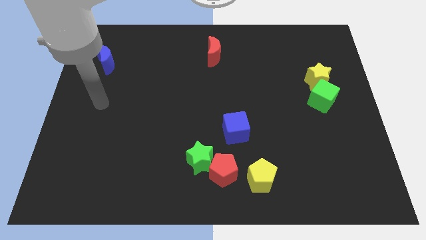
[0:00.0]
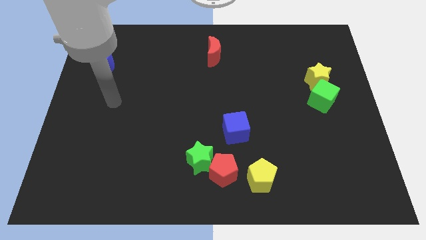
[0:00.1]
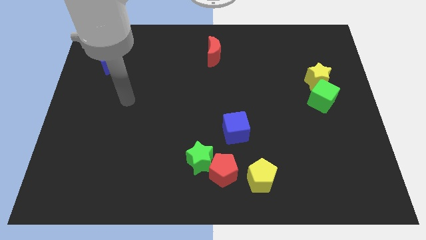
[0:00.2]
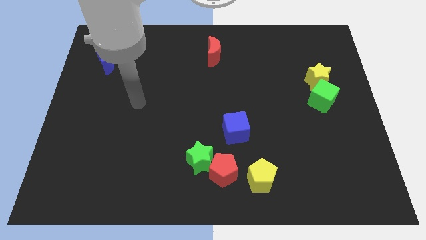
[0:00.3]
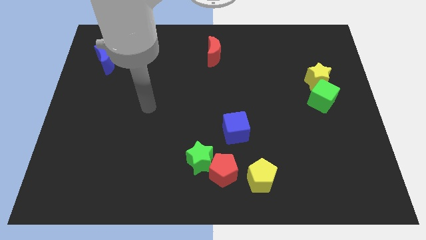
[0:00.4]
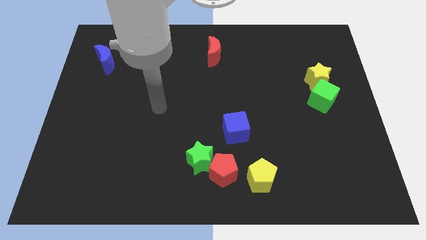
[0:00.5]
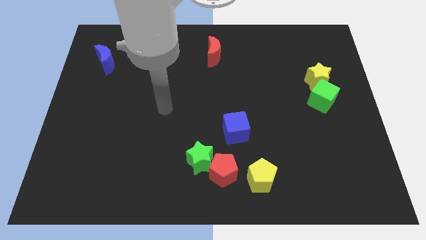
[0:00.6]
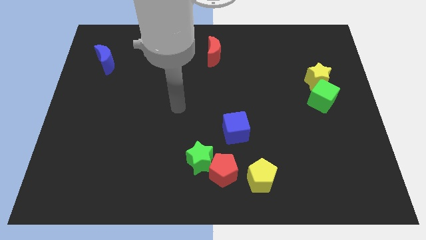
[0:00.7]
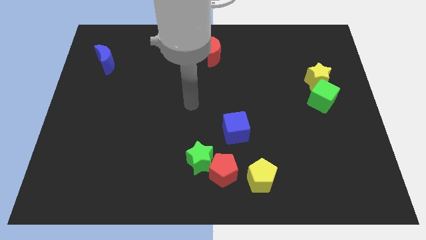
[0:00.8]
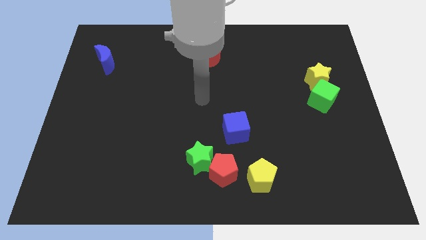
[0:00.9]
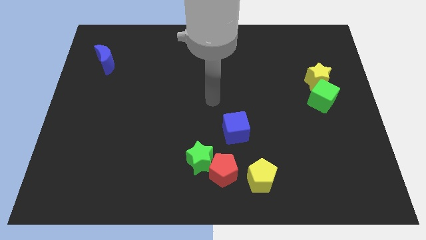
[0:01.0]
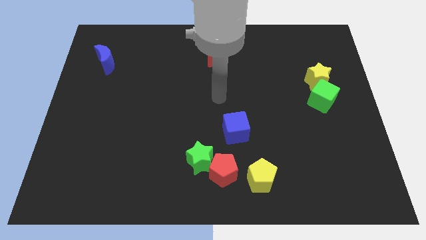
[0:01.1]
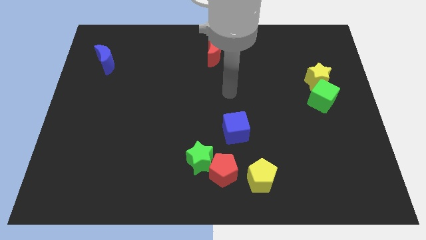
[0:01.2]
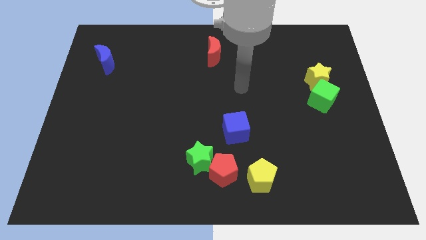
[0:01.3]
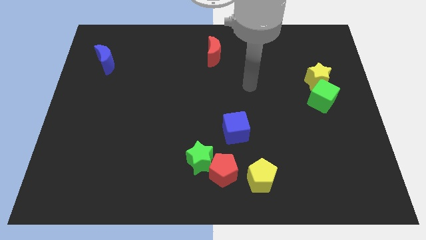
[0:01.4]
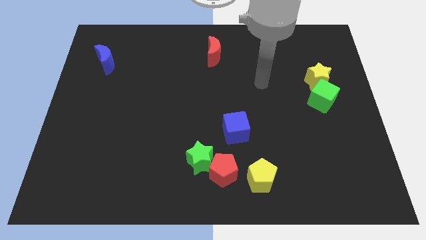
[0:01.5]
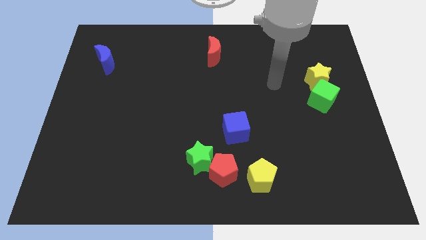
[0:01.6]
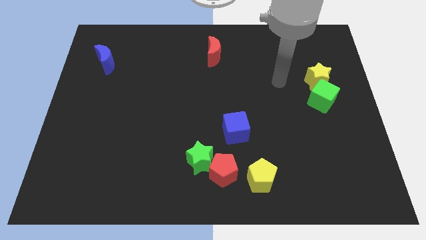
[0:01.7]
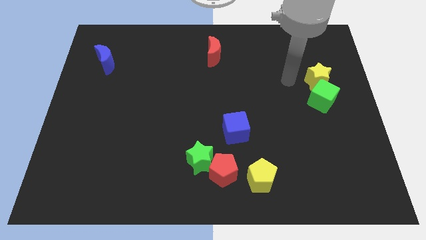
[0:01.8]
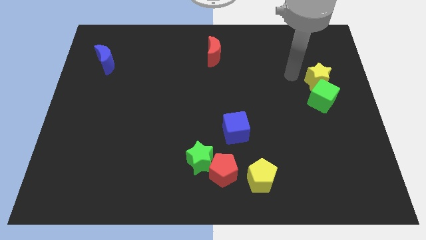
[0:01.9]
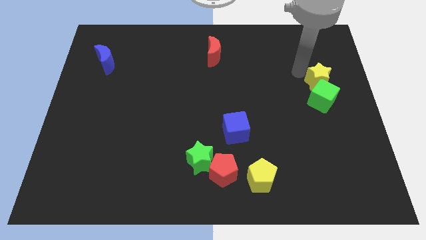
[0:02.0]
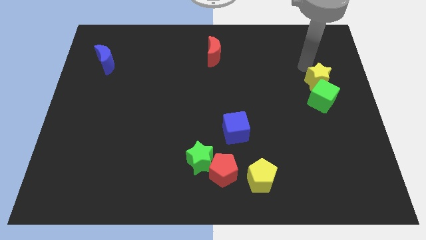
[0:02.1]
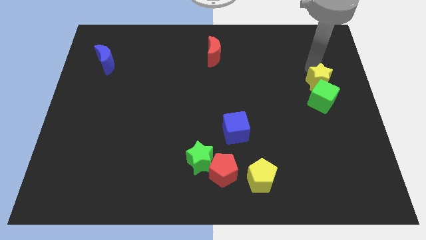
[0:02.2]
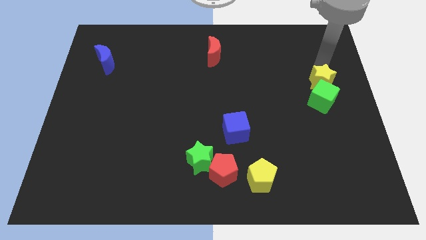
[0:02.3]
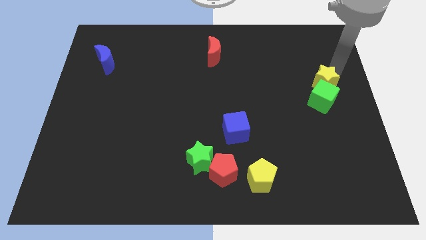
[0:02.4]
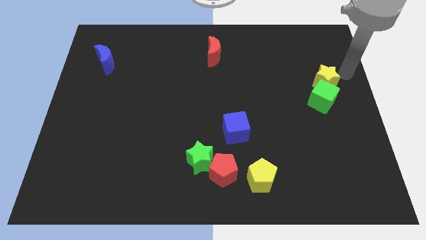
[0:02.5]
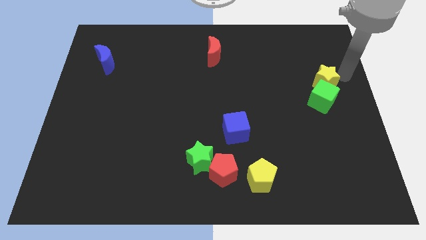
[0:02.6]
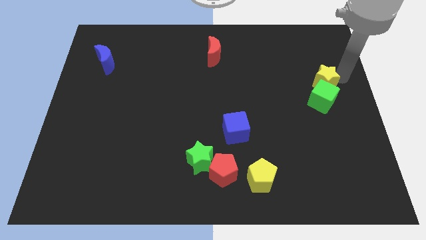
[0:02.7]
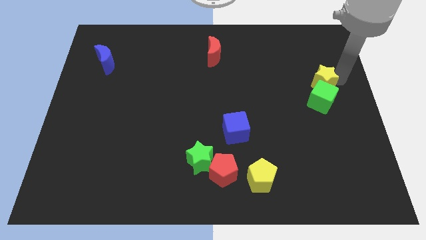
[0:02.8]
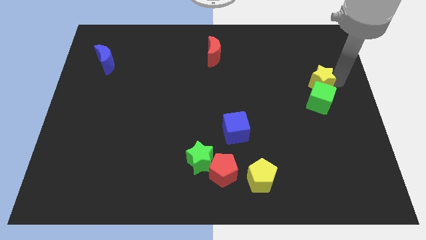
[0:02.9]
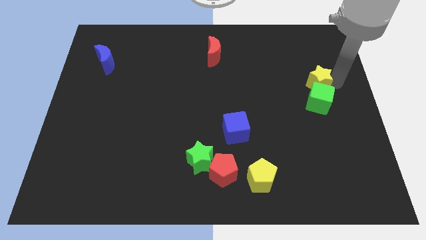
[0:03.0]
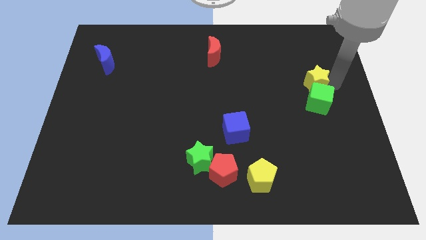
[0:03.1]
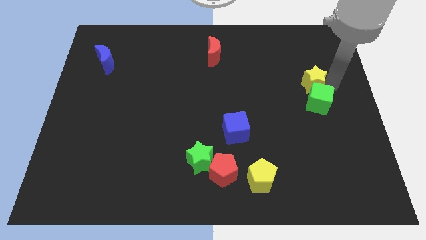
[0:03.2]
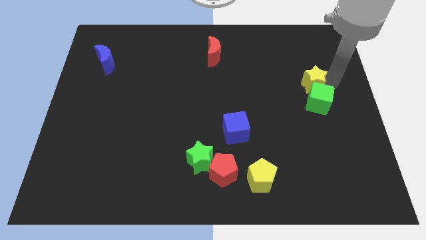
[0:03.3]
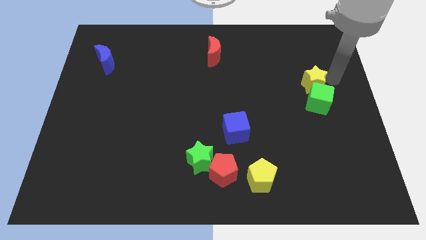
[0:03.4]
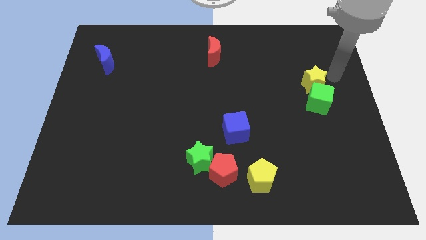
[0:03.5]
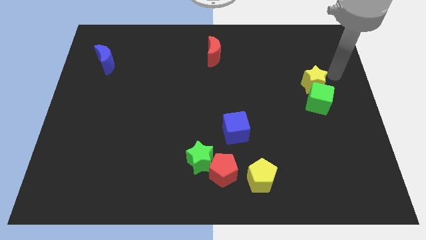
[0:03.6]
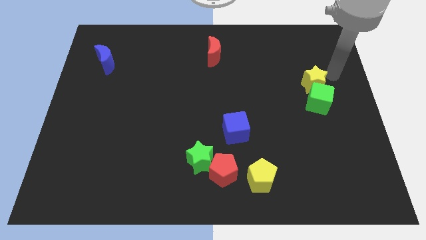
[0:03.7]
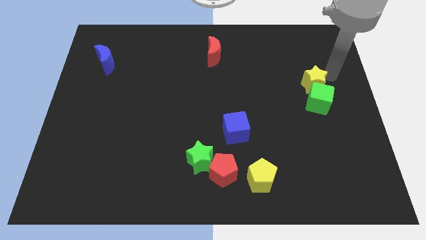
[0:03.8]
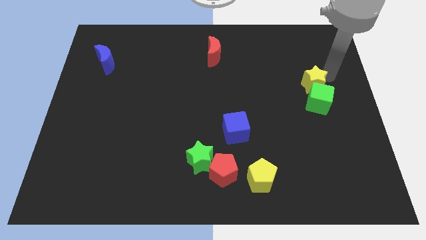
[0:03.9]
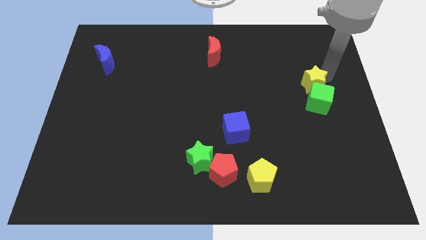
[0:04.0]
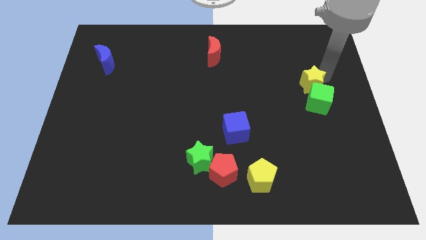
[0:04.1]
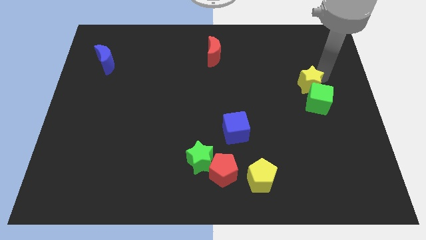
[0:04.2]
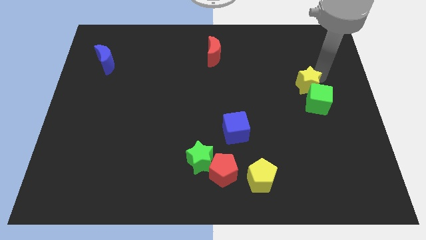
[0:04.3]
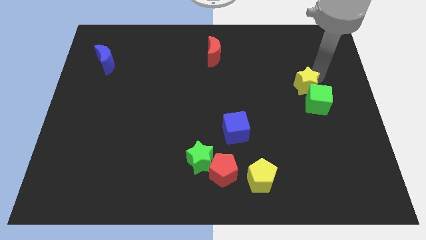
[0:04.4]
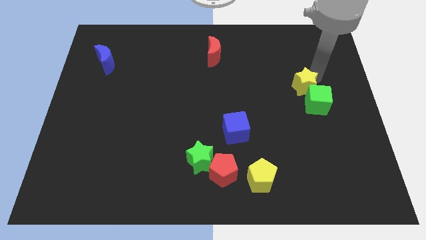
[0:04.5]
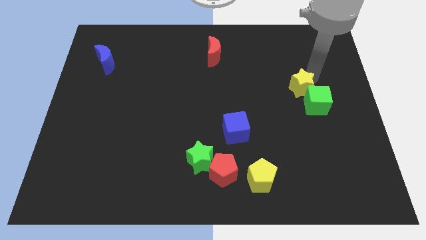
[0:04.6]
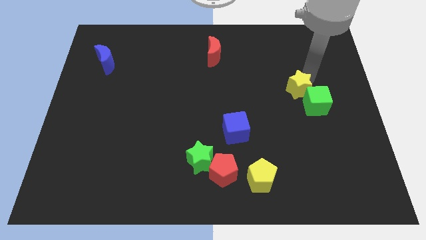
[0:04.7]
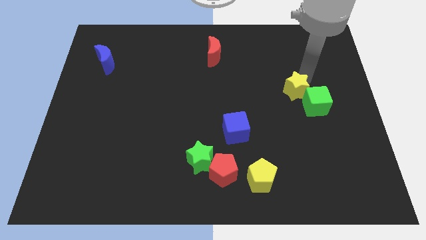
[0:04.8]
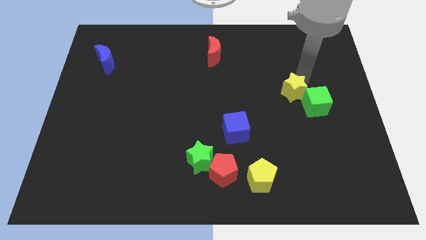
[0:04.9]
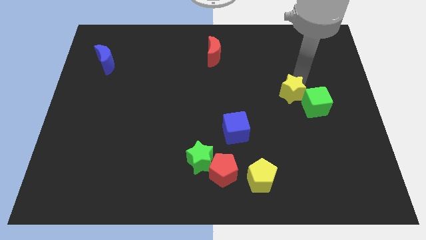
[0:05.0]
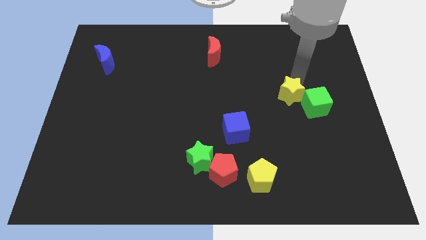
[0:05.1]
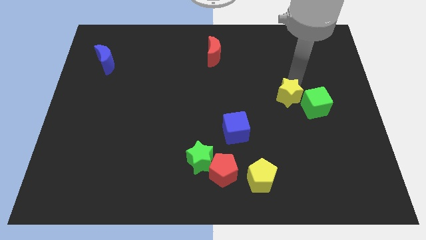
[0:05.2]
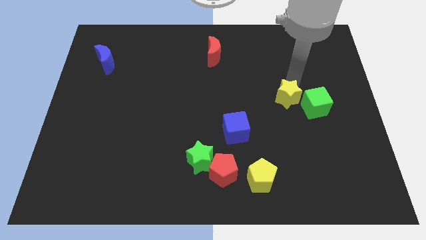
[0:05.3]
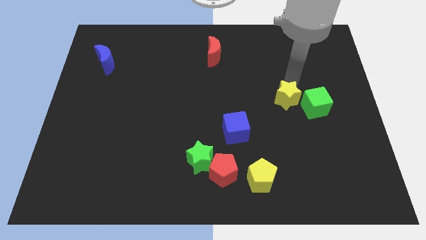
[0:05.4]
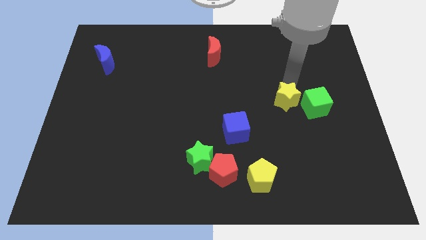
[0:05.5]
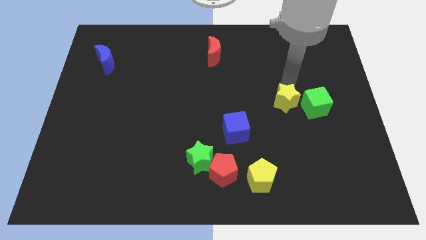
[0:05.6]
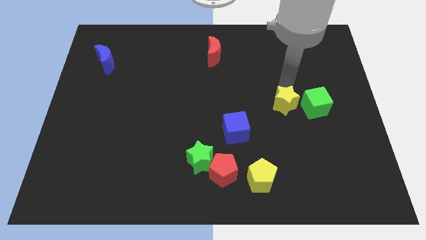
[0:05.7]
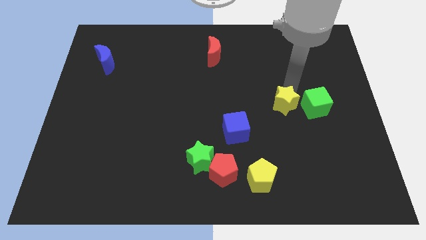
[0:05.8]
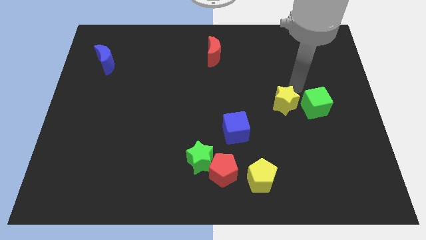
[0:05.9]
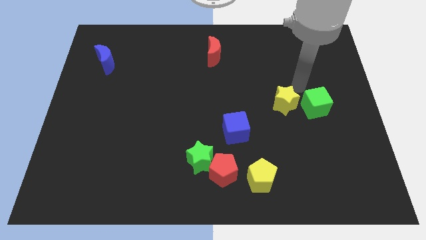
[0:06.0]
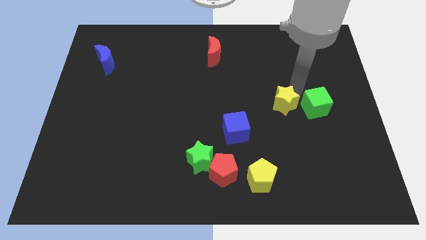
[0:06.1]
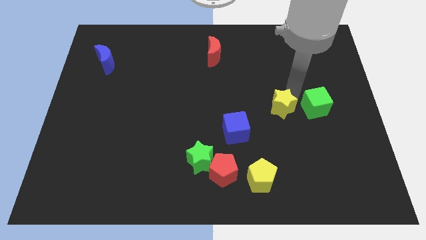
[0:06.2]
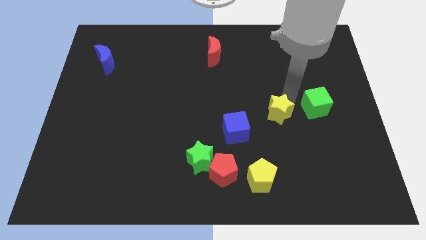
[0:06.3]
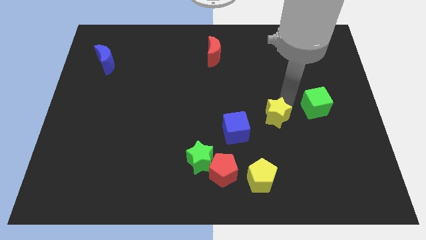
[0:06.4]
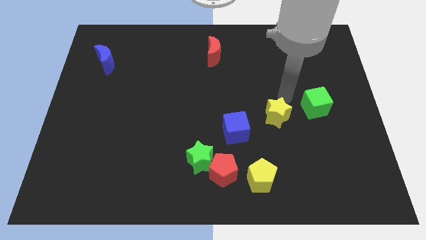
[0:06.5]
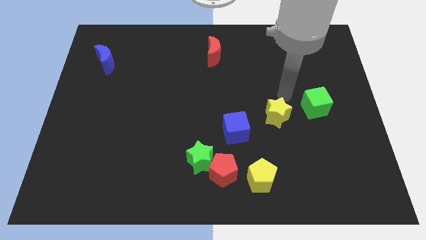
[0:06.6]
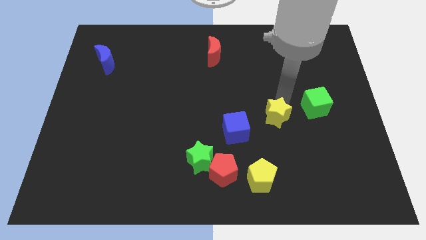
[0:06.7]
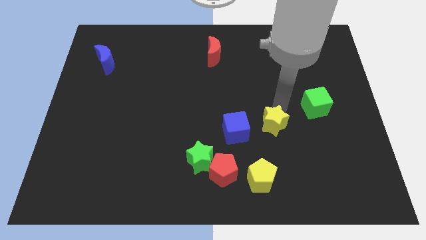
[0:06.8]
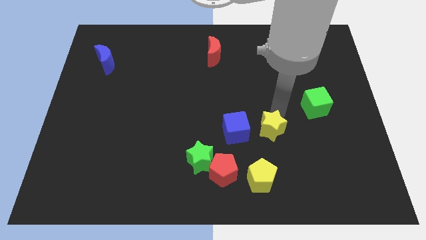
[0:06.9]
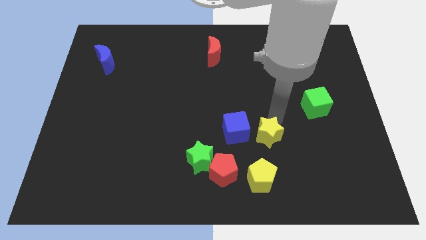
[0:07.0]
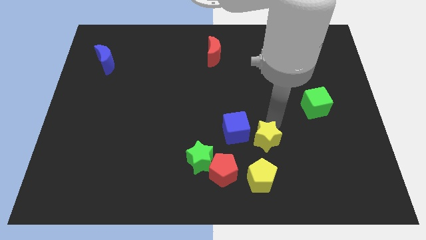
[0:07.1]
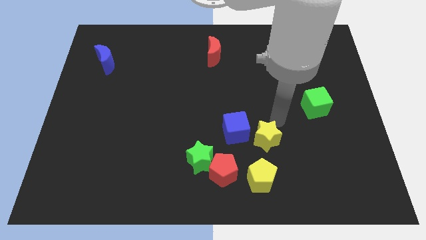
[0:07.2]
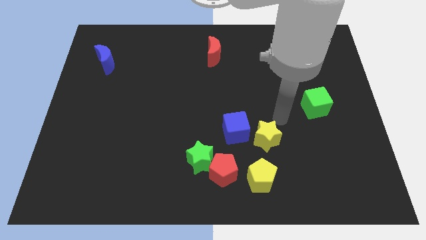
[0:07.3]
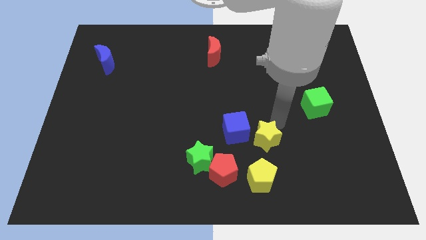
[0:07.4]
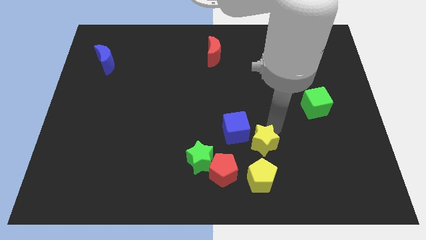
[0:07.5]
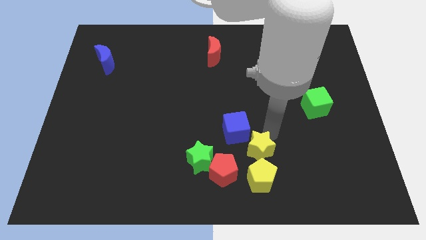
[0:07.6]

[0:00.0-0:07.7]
move the yellow star to the right of the green star
